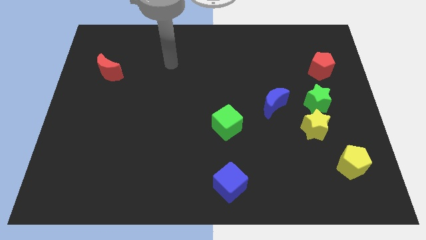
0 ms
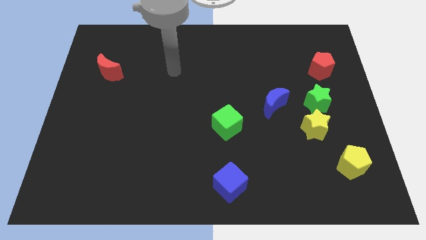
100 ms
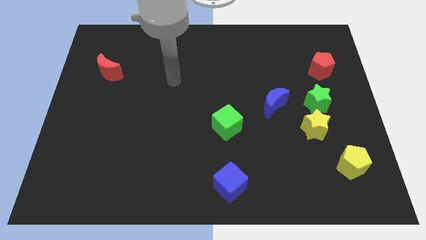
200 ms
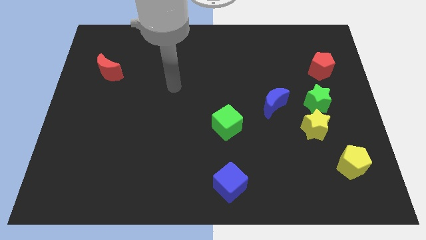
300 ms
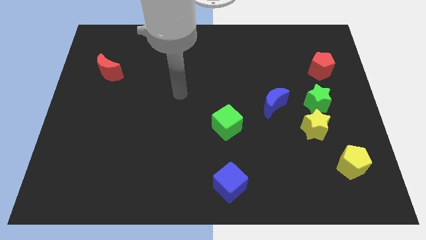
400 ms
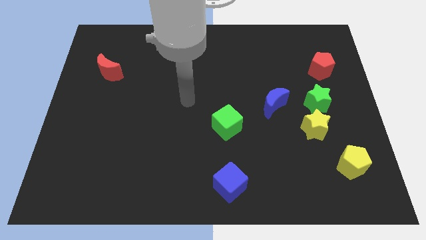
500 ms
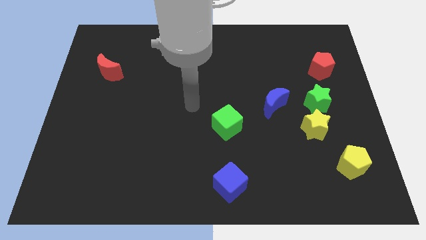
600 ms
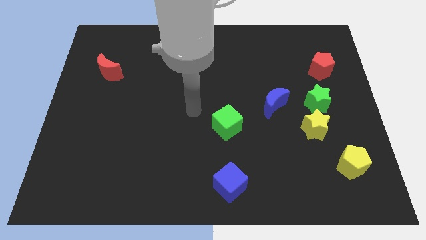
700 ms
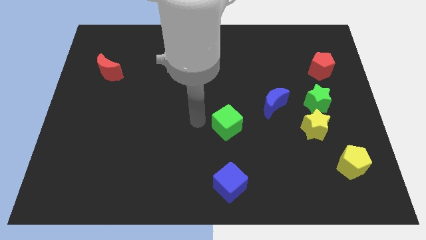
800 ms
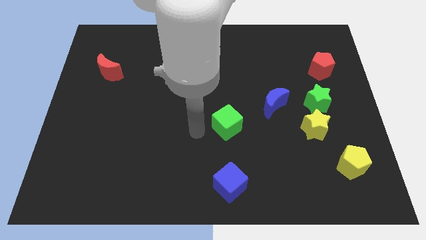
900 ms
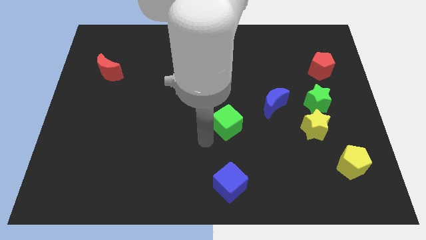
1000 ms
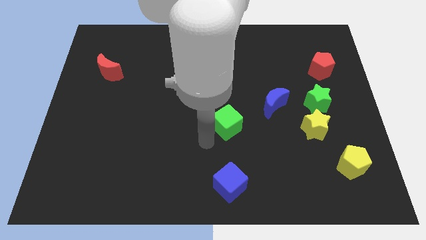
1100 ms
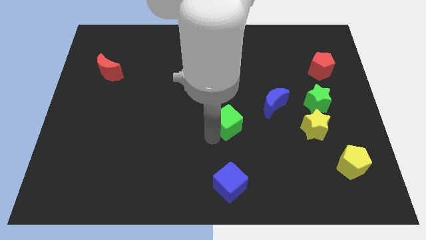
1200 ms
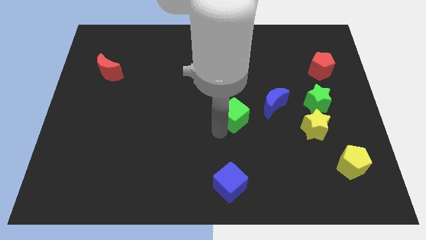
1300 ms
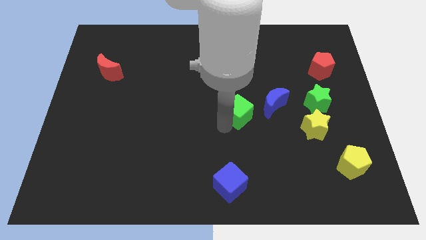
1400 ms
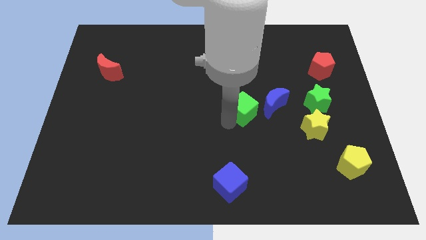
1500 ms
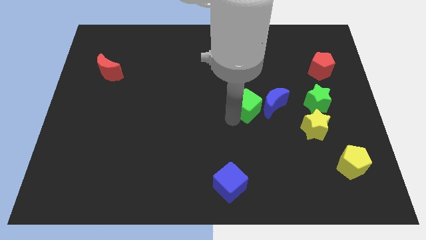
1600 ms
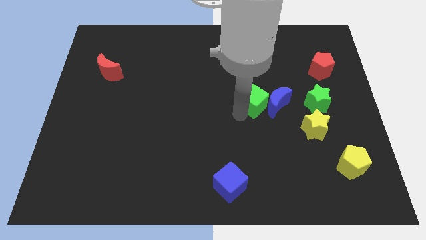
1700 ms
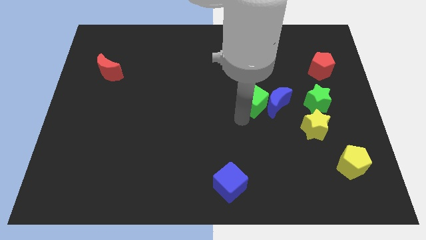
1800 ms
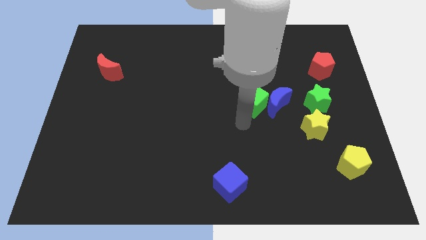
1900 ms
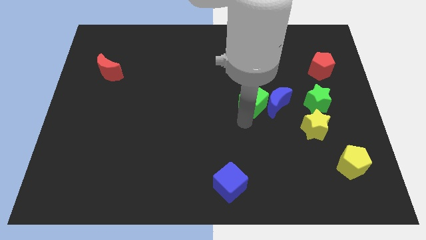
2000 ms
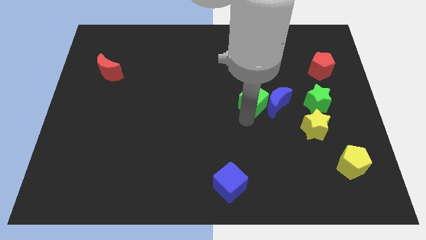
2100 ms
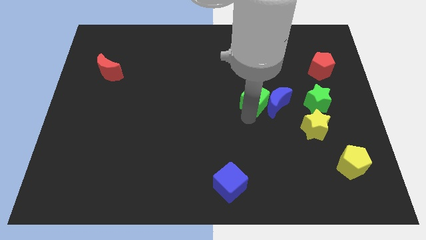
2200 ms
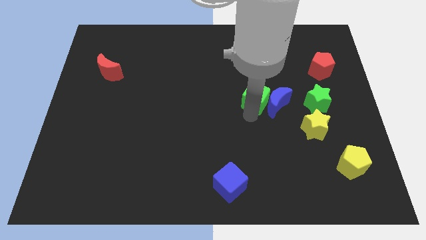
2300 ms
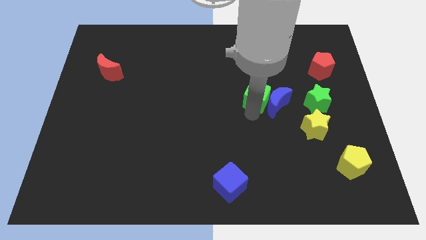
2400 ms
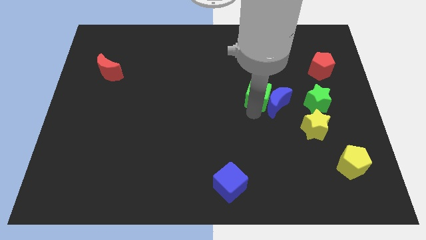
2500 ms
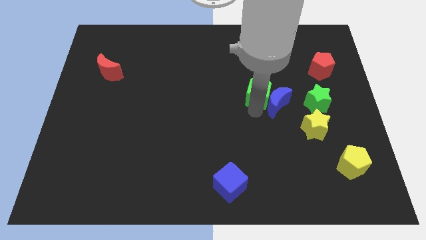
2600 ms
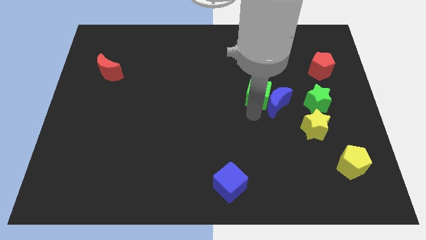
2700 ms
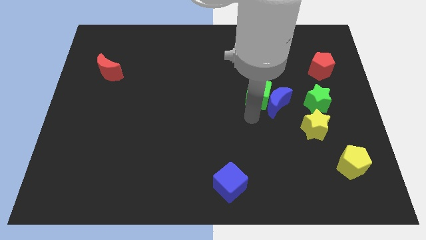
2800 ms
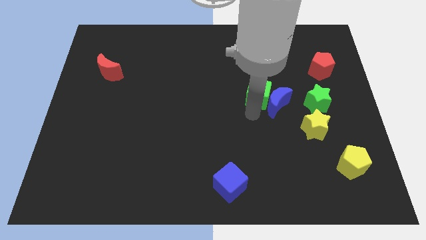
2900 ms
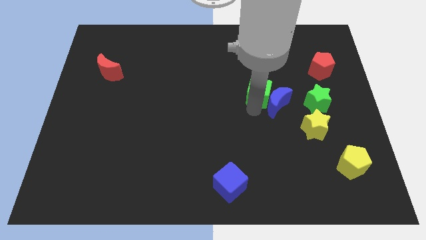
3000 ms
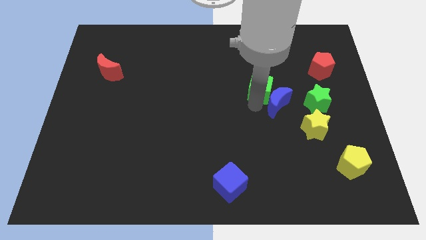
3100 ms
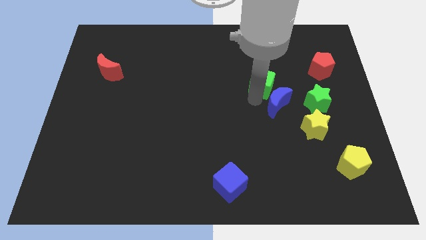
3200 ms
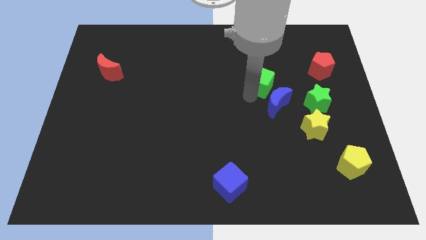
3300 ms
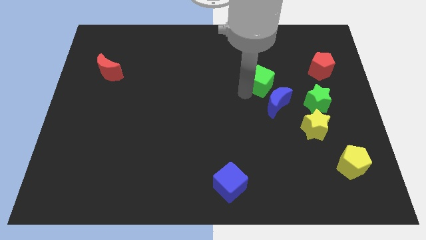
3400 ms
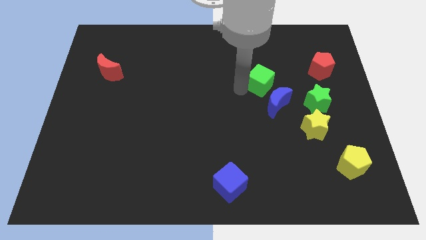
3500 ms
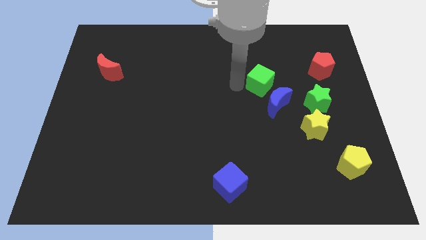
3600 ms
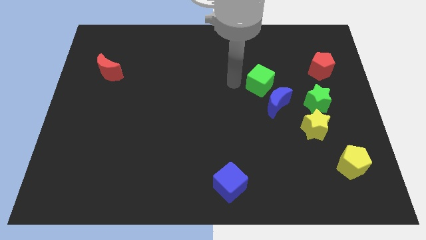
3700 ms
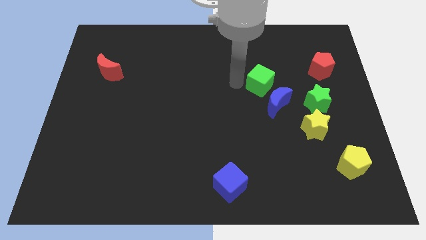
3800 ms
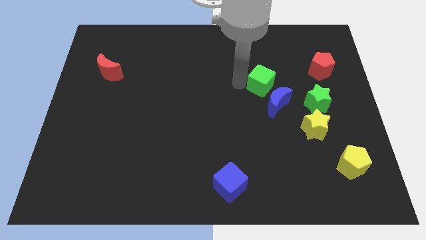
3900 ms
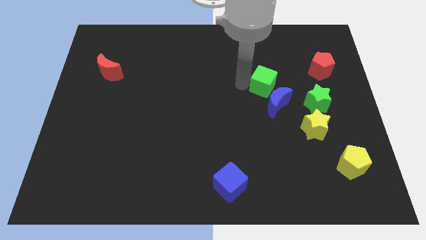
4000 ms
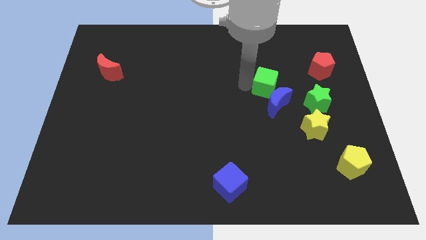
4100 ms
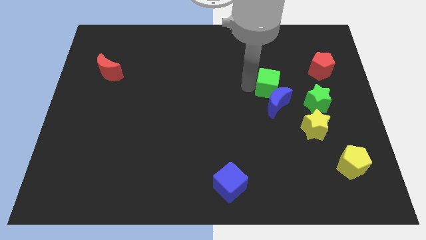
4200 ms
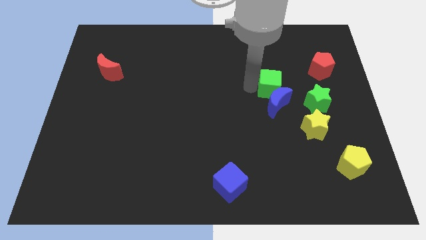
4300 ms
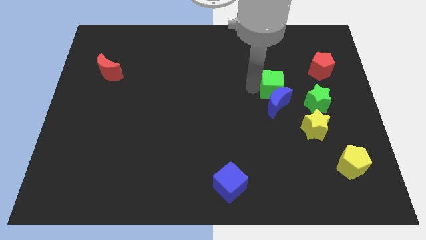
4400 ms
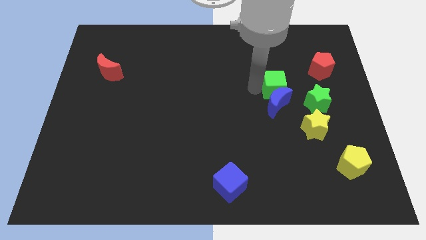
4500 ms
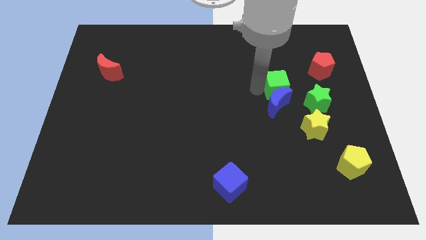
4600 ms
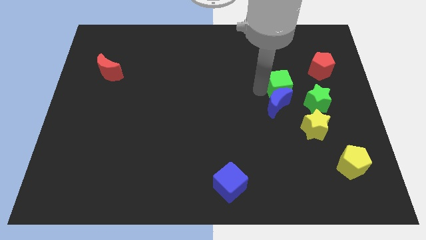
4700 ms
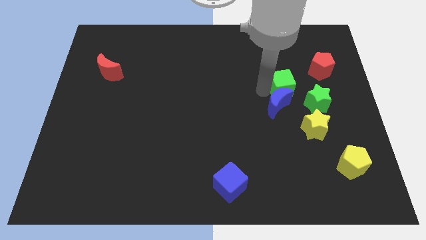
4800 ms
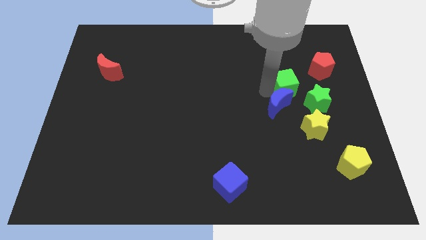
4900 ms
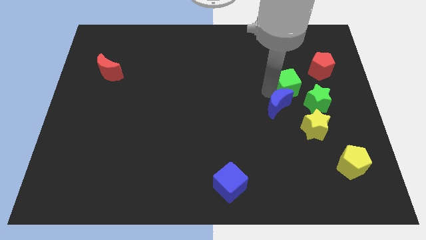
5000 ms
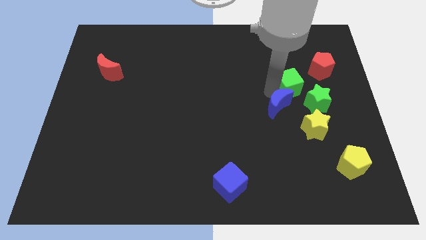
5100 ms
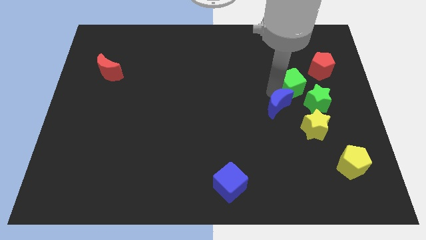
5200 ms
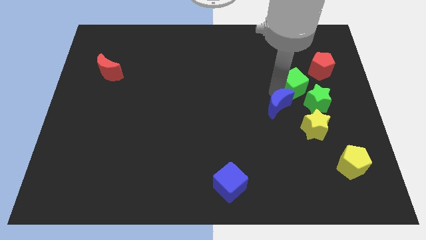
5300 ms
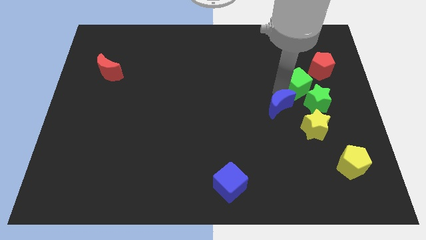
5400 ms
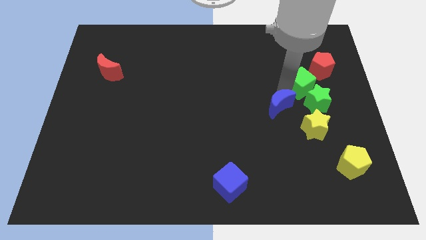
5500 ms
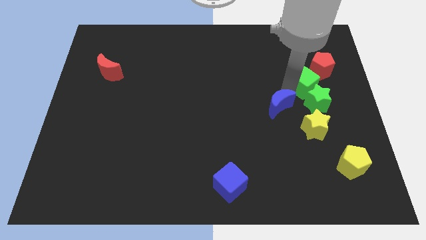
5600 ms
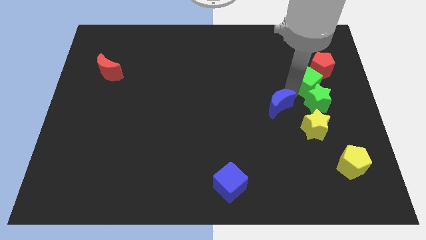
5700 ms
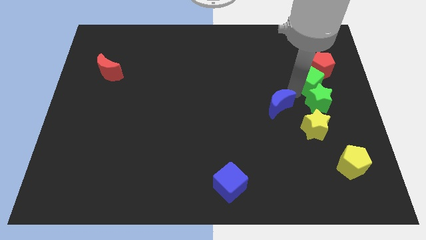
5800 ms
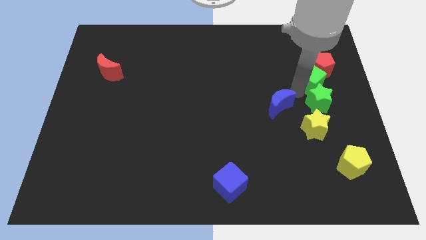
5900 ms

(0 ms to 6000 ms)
move the green cube to the red pentagon

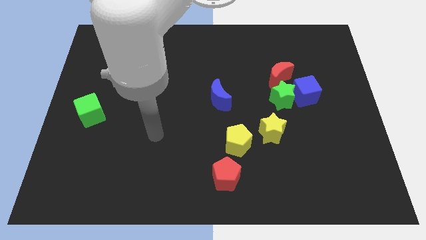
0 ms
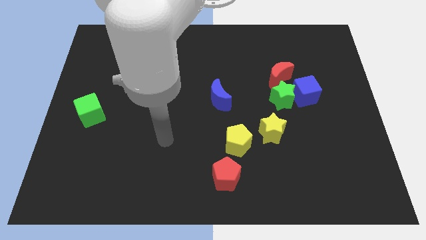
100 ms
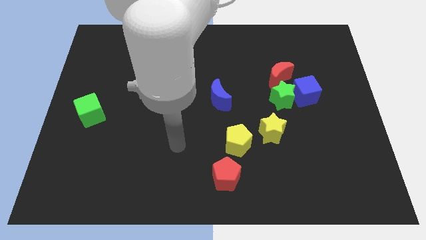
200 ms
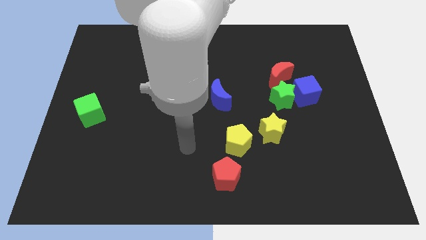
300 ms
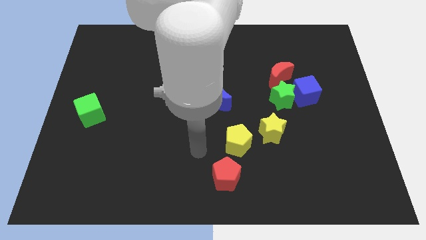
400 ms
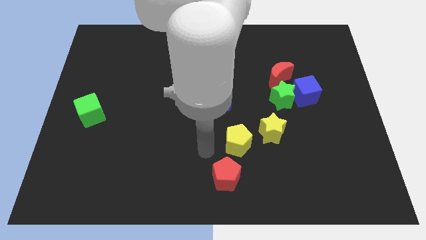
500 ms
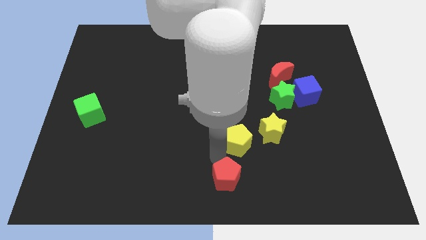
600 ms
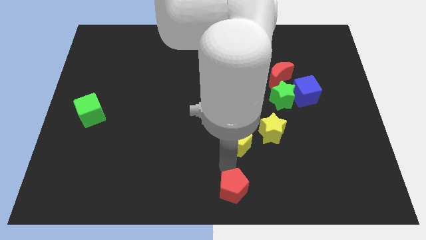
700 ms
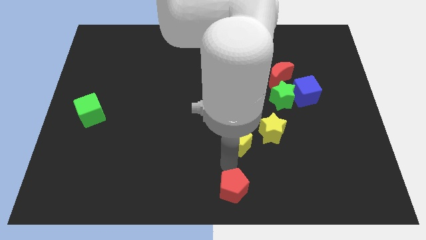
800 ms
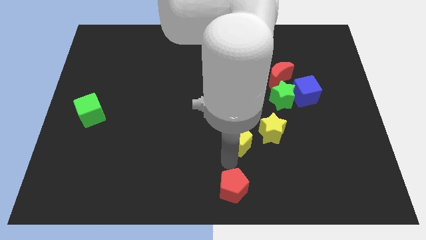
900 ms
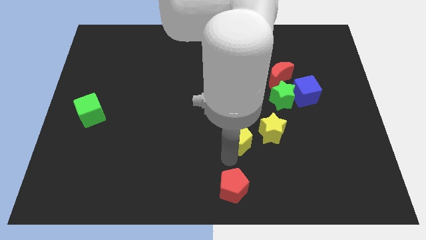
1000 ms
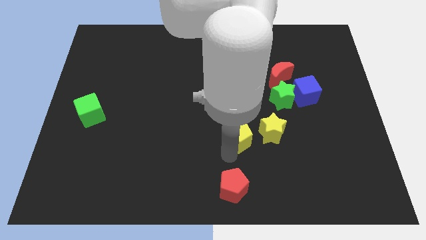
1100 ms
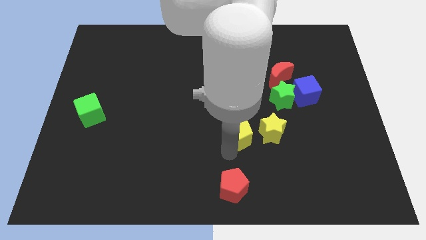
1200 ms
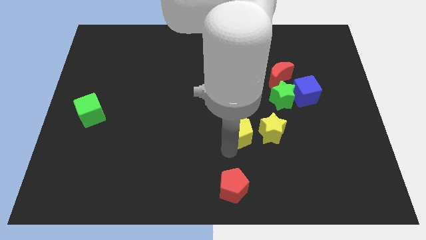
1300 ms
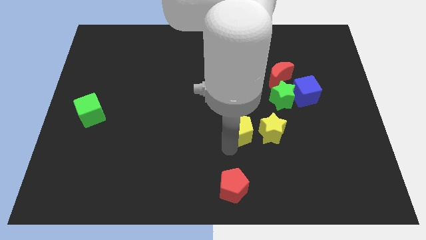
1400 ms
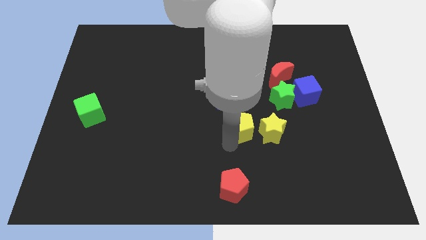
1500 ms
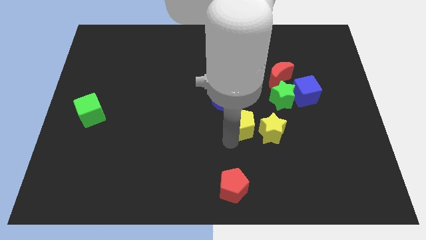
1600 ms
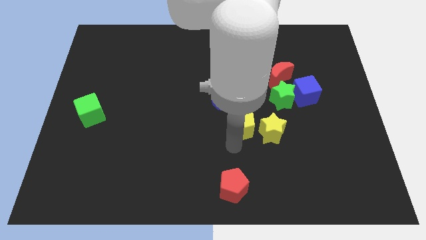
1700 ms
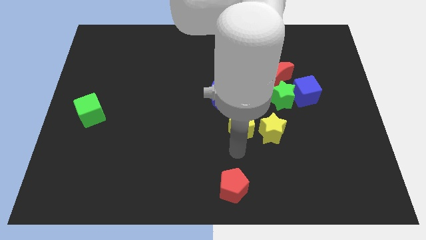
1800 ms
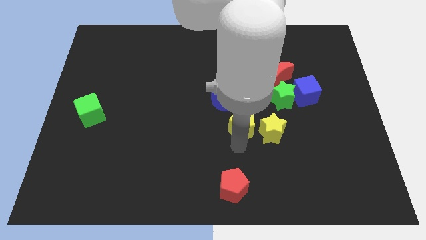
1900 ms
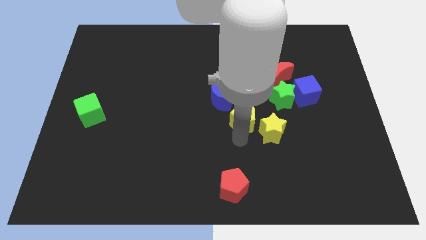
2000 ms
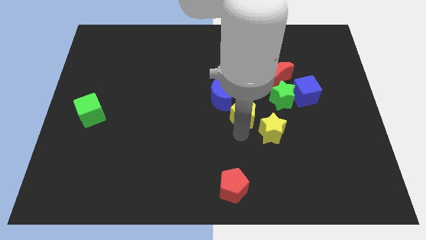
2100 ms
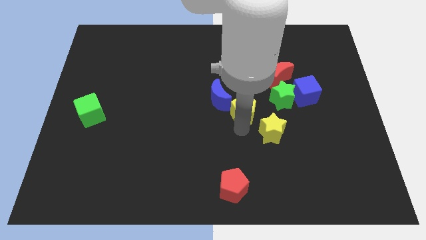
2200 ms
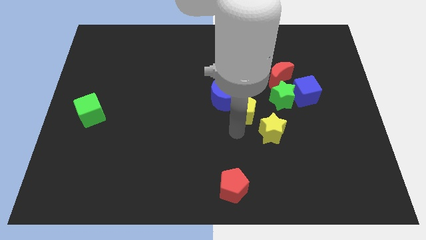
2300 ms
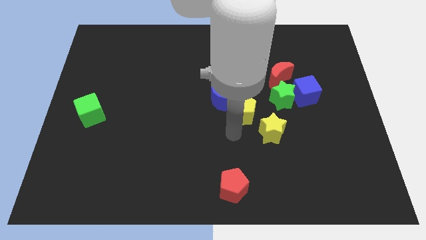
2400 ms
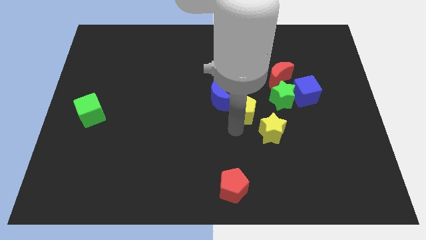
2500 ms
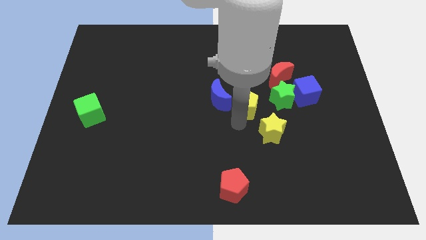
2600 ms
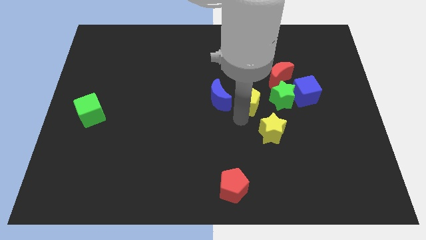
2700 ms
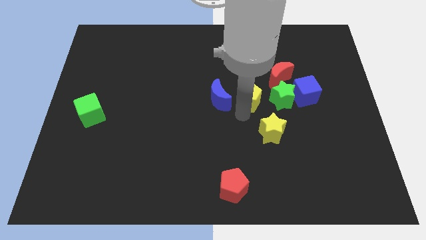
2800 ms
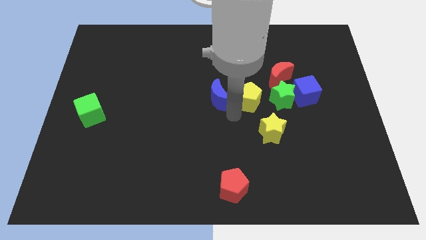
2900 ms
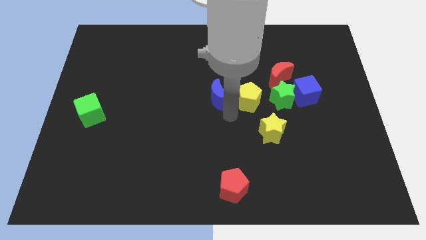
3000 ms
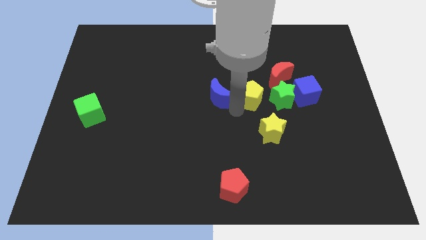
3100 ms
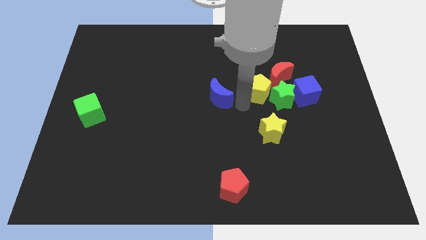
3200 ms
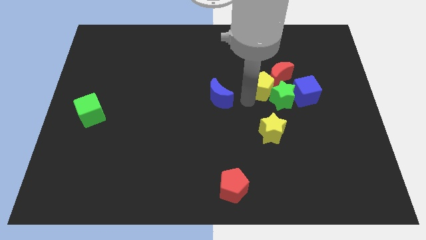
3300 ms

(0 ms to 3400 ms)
slide the yellow pentagon next to the red moon
